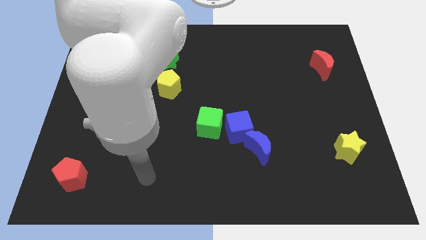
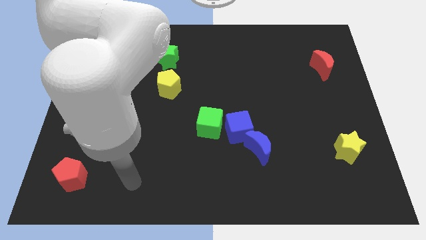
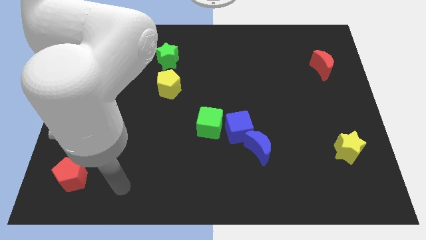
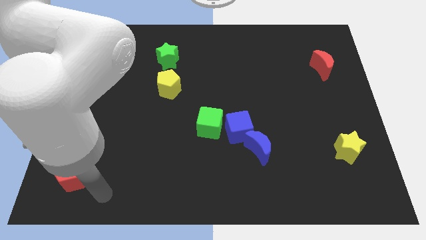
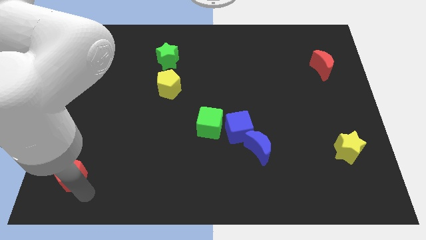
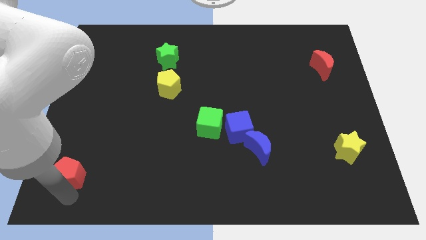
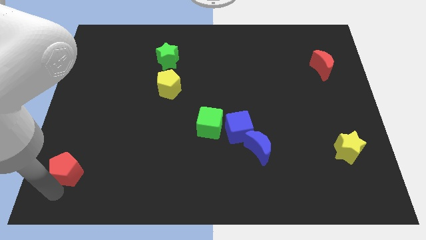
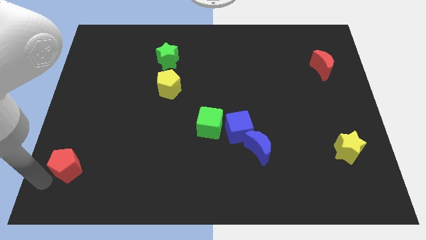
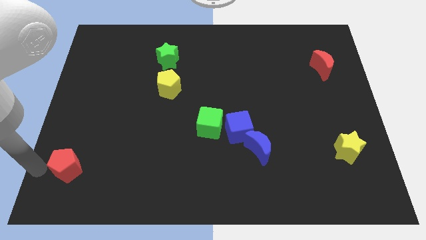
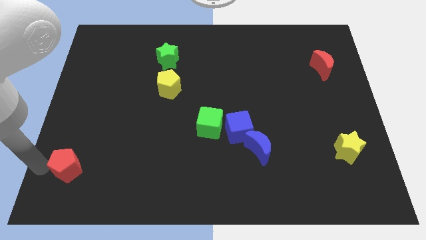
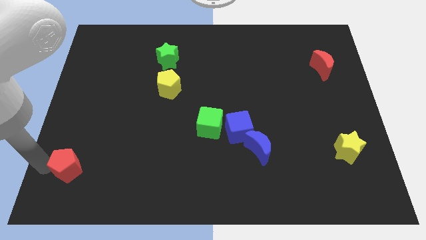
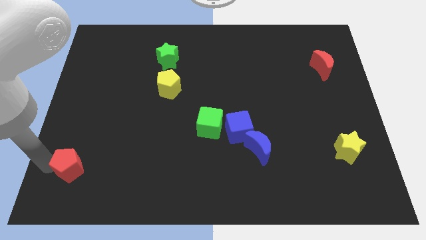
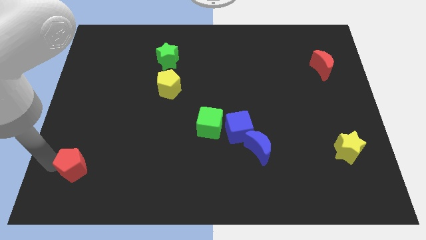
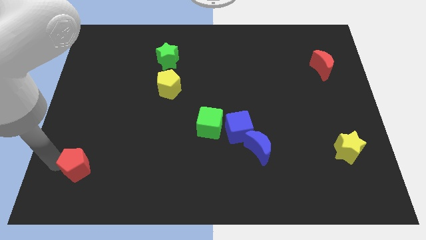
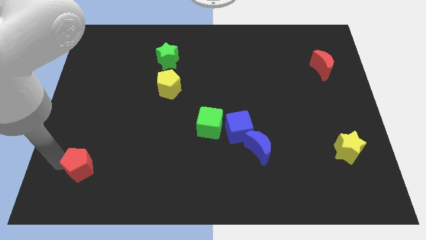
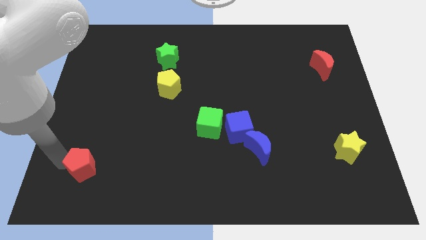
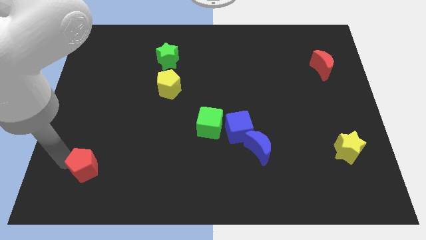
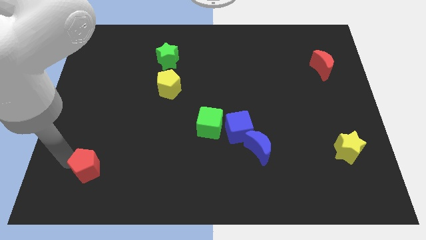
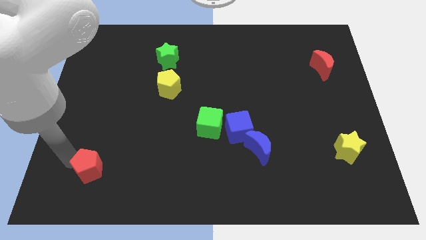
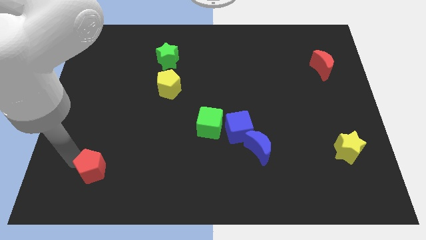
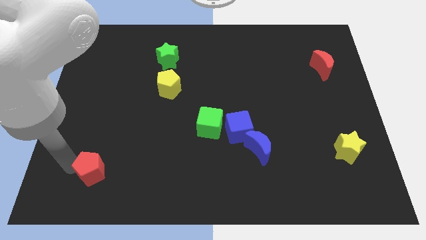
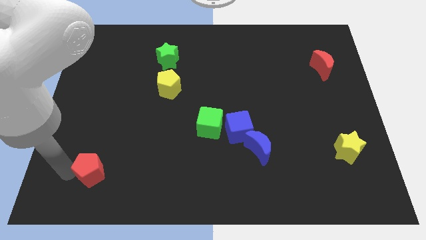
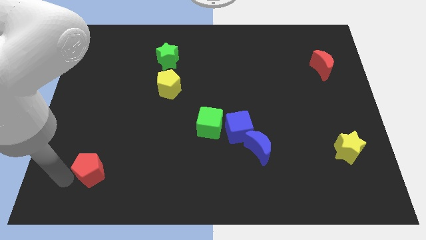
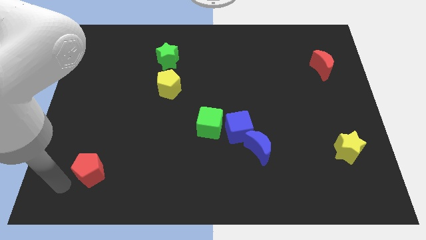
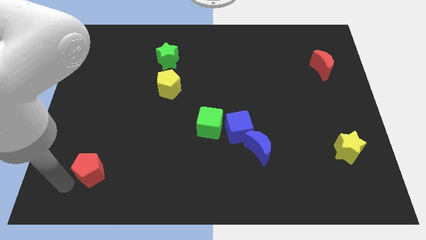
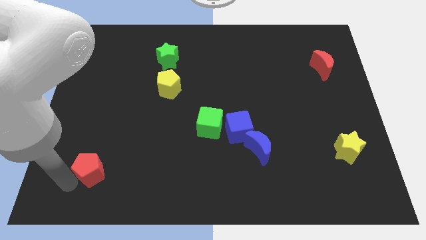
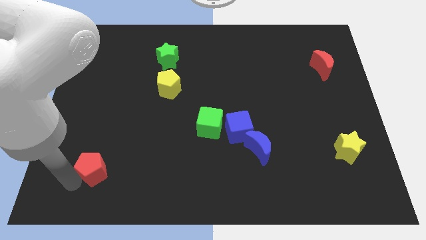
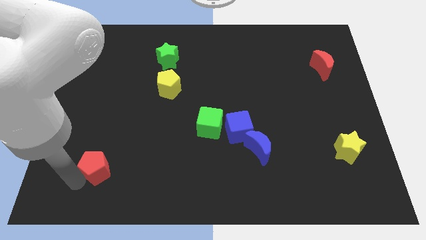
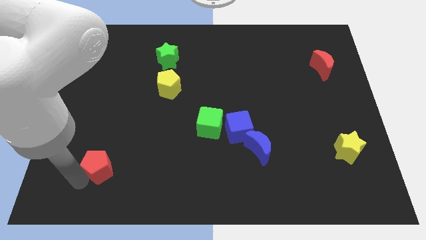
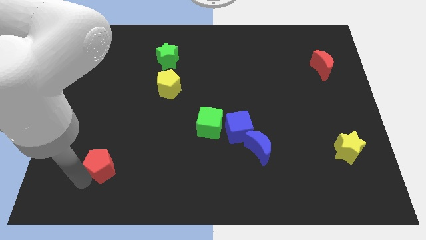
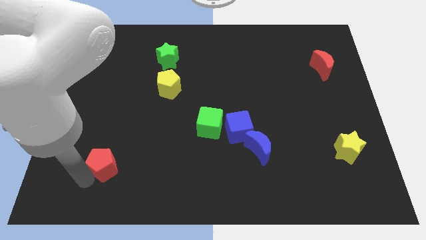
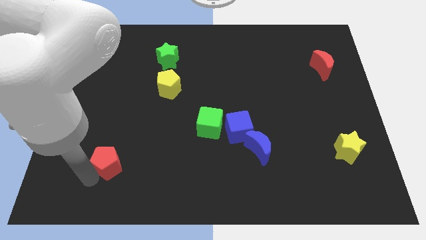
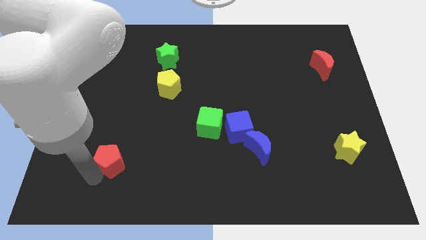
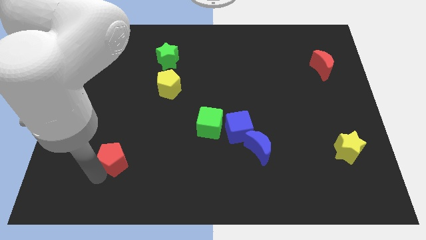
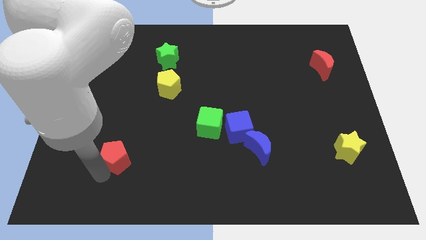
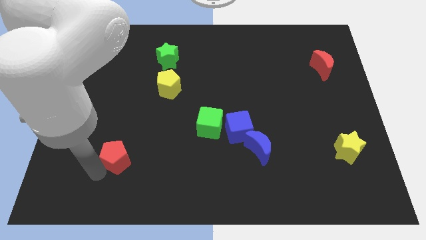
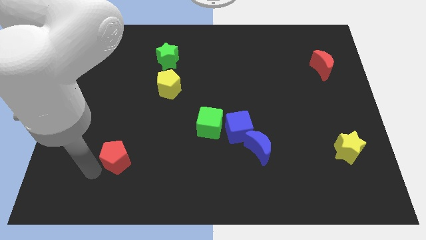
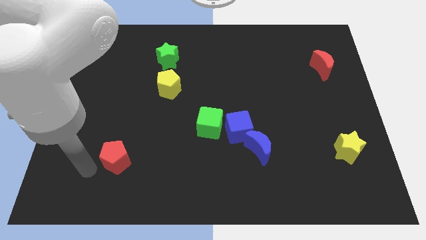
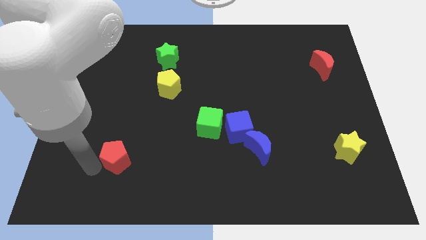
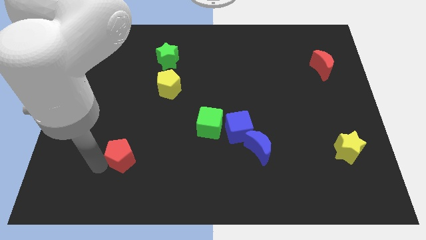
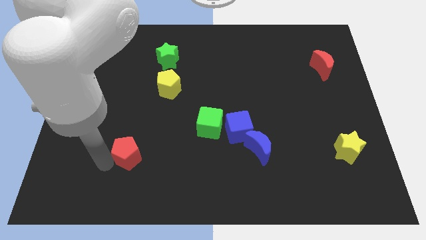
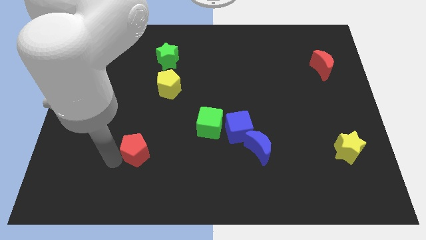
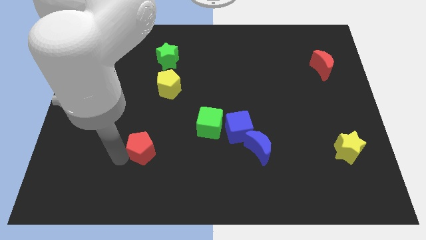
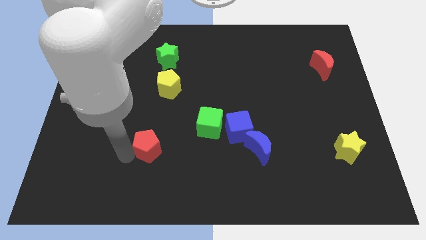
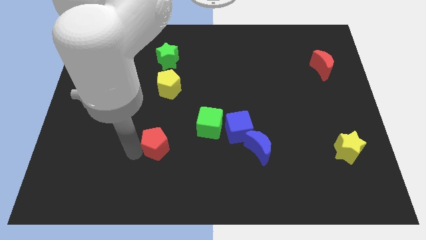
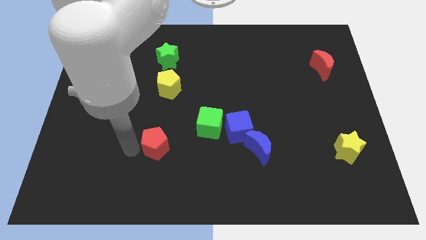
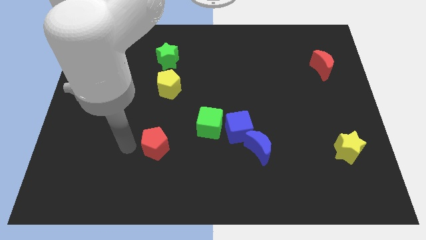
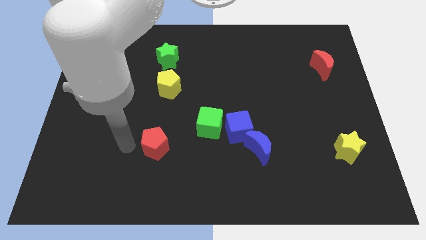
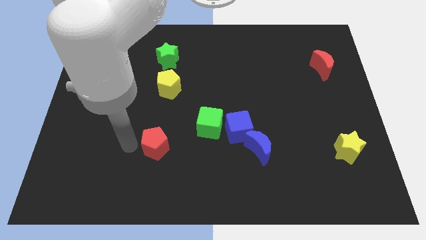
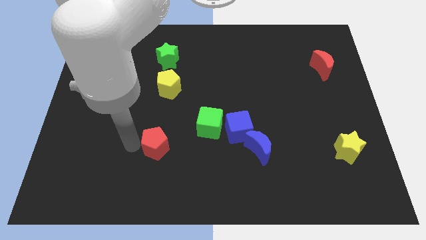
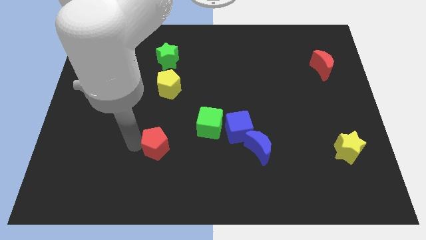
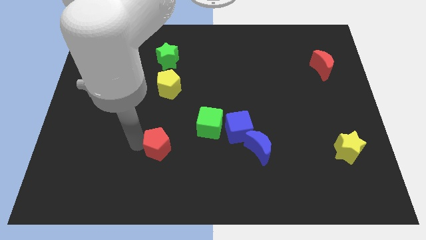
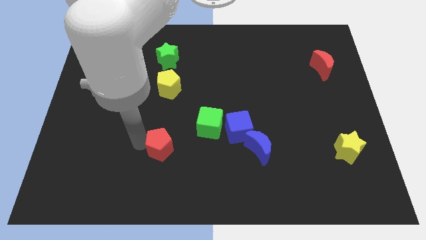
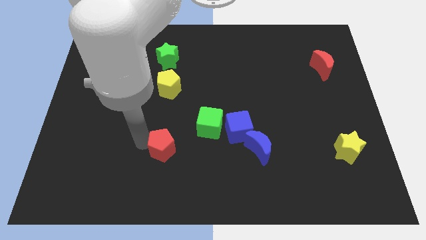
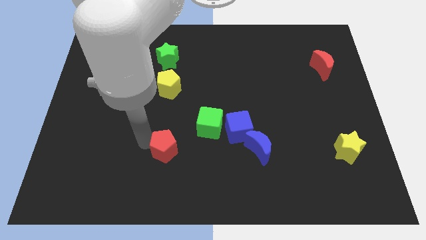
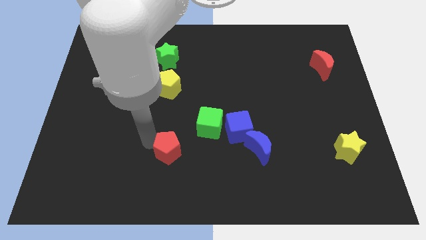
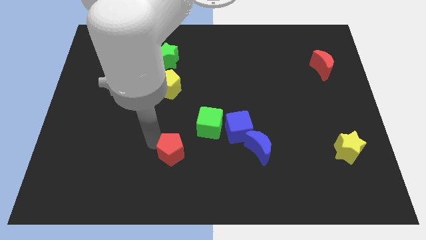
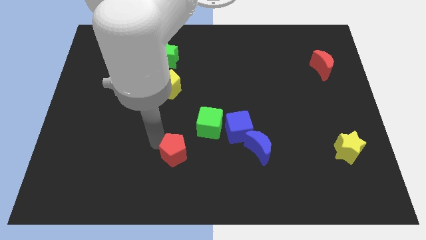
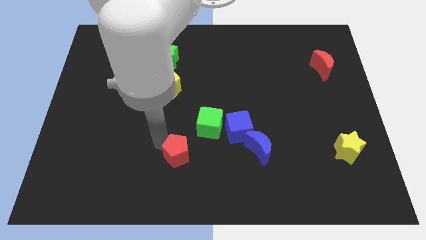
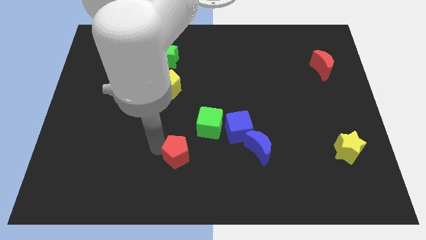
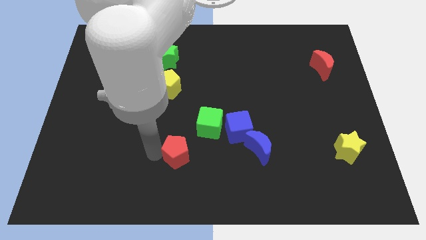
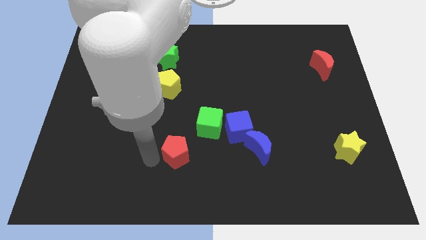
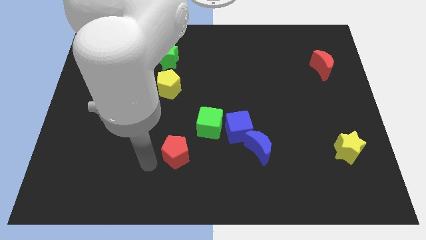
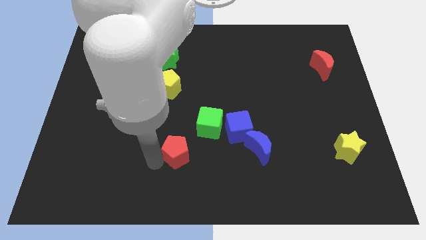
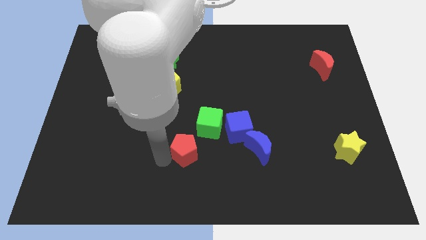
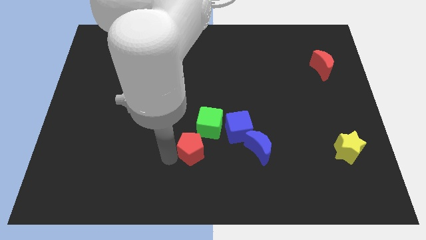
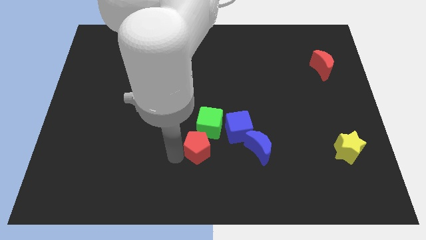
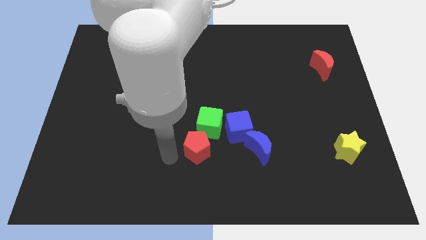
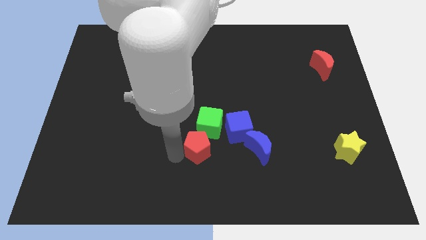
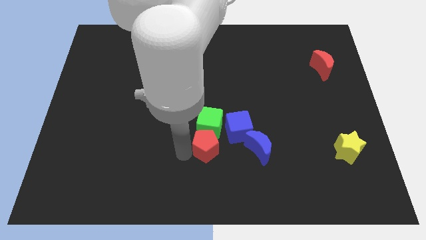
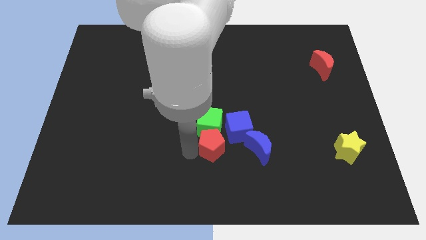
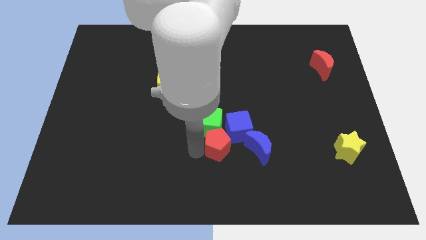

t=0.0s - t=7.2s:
push the red pentagon close to the blue cube

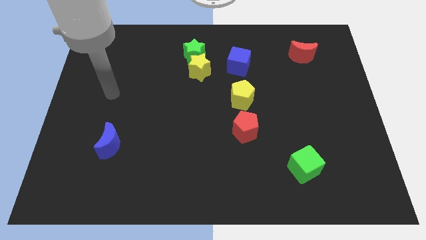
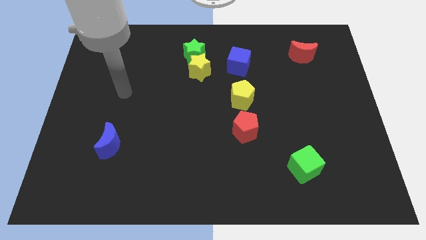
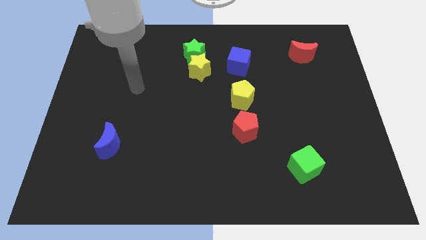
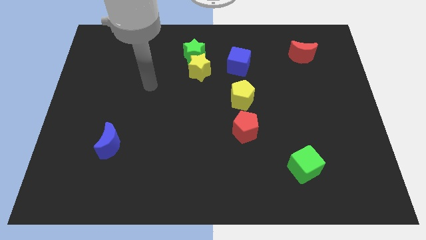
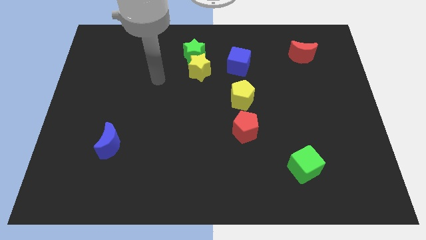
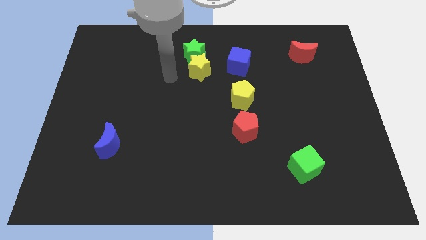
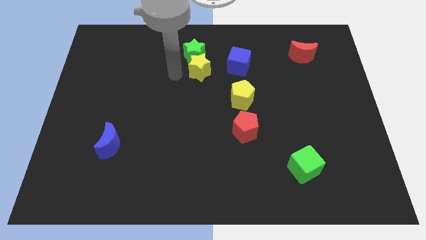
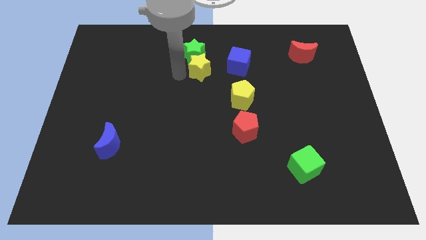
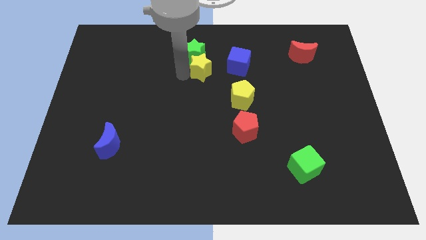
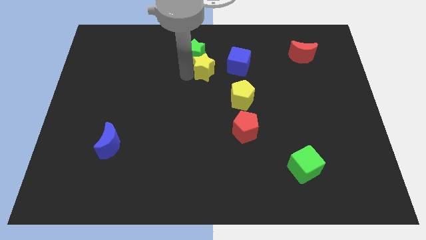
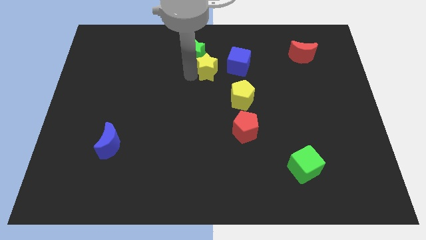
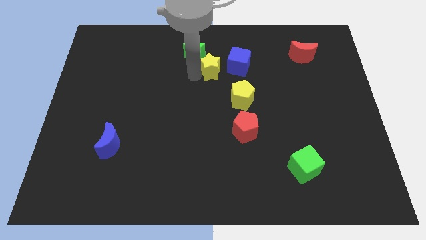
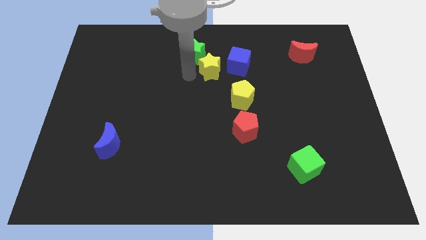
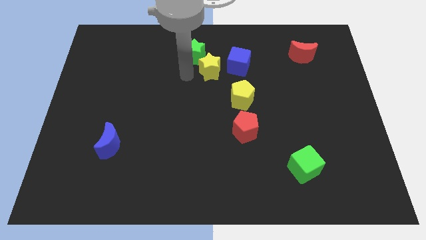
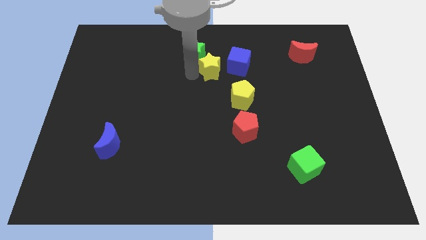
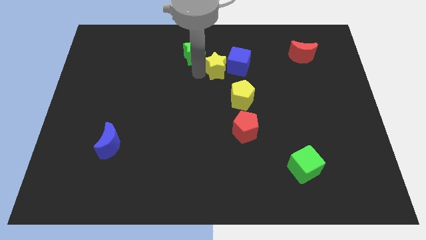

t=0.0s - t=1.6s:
put the yellow star to the blue cube
